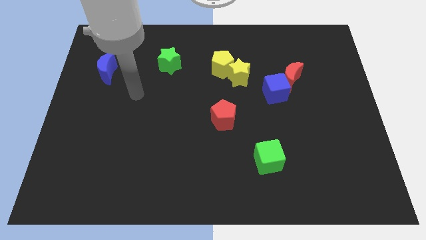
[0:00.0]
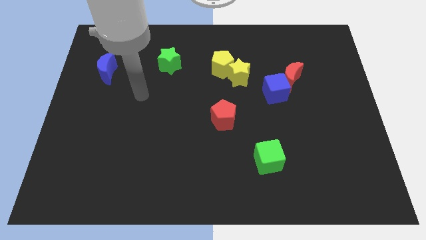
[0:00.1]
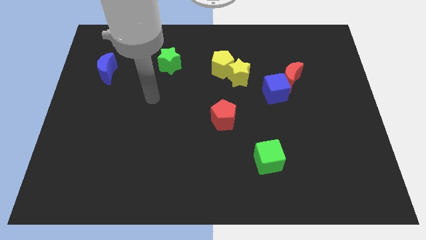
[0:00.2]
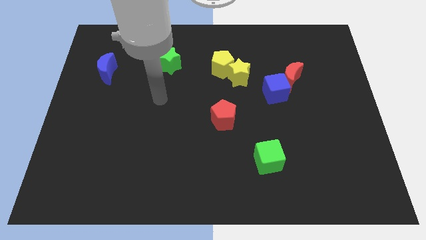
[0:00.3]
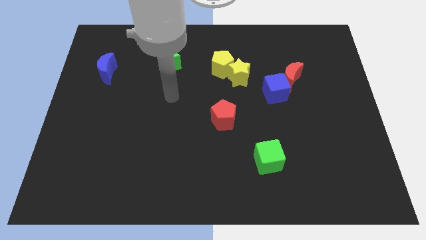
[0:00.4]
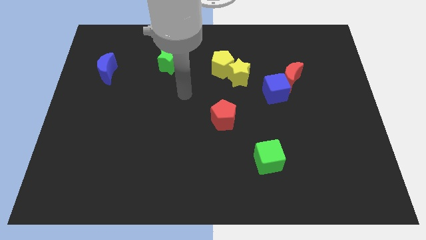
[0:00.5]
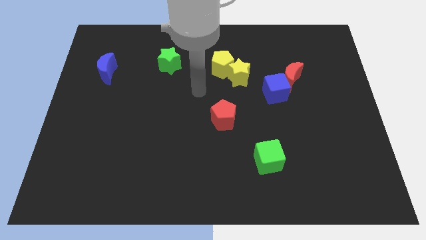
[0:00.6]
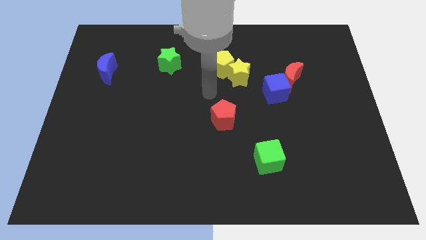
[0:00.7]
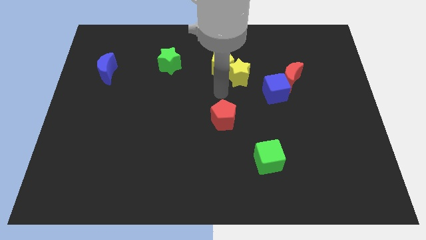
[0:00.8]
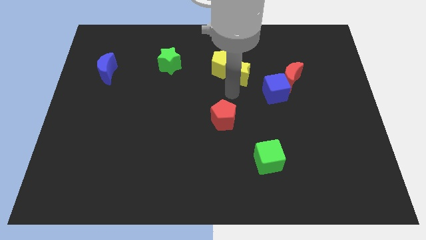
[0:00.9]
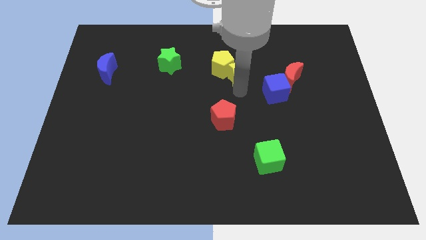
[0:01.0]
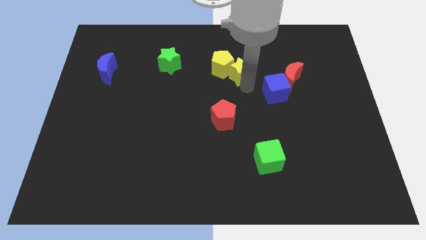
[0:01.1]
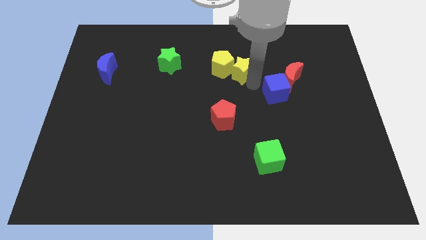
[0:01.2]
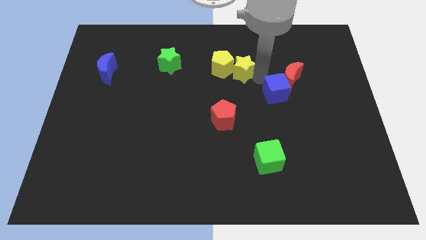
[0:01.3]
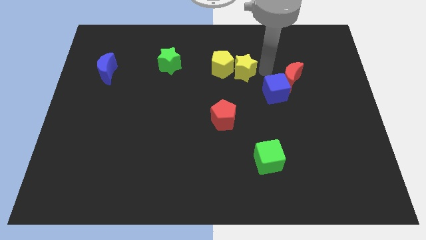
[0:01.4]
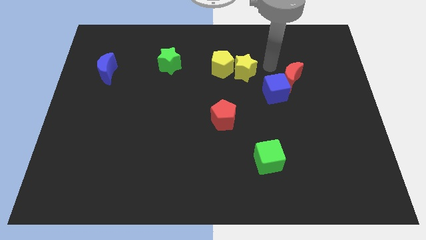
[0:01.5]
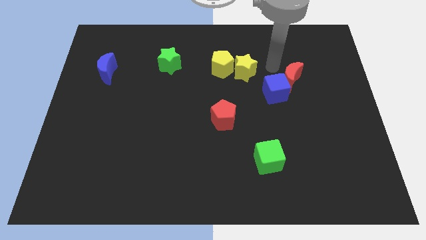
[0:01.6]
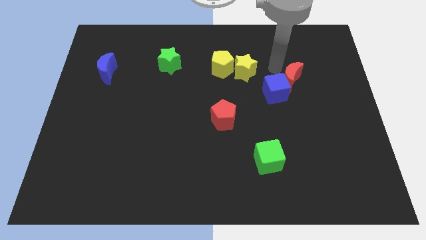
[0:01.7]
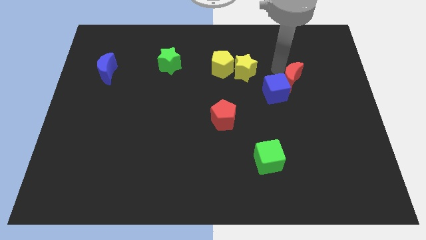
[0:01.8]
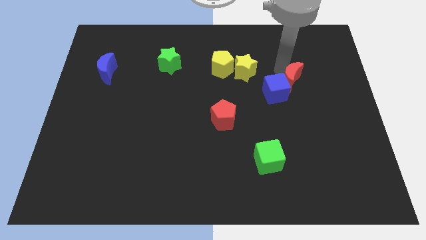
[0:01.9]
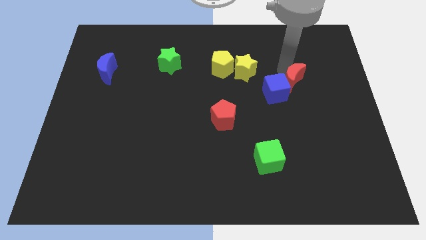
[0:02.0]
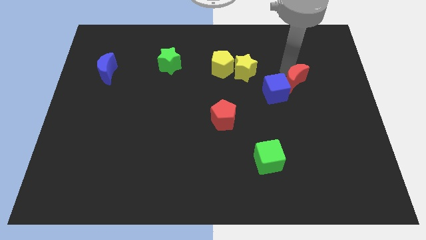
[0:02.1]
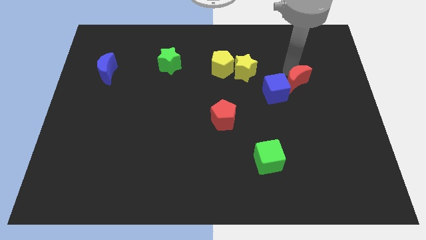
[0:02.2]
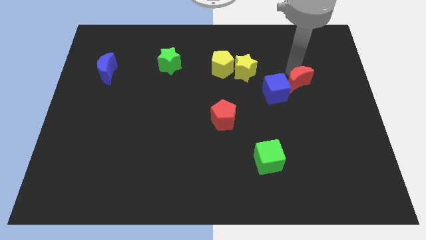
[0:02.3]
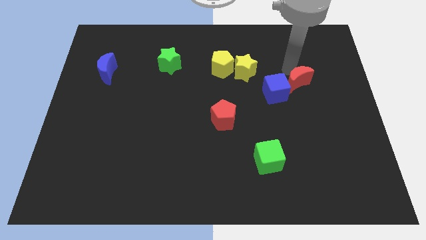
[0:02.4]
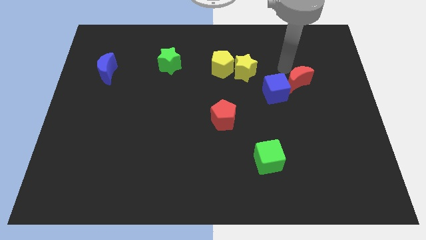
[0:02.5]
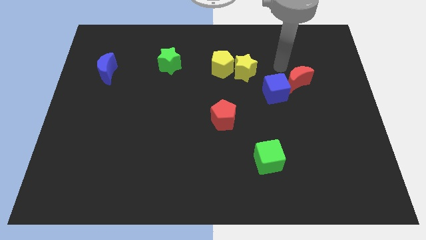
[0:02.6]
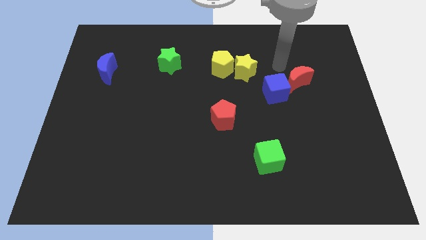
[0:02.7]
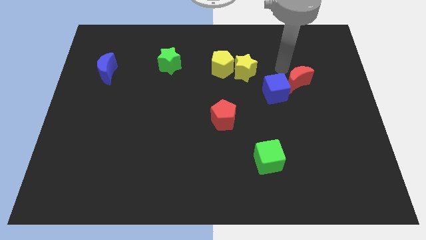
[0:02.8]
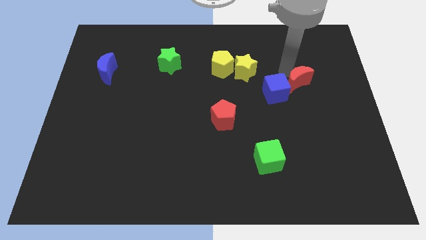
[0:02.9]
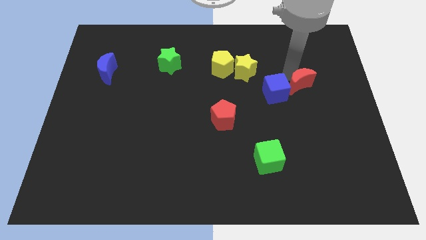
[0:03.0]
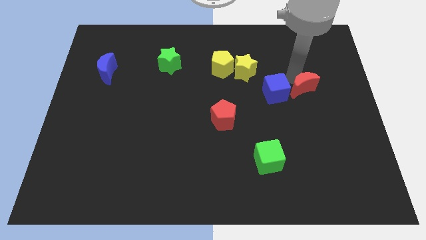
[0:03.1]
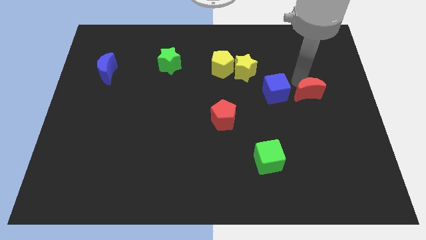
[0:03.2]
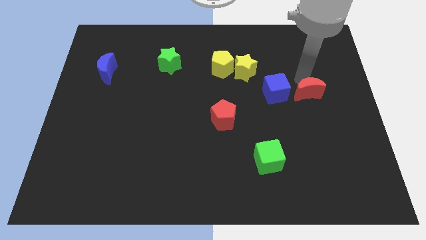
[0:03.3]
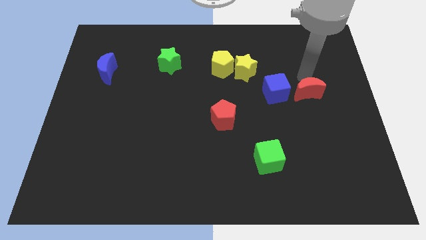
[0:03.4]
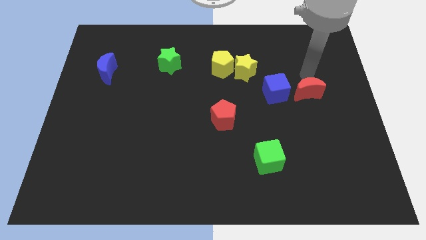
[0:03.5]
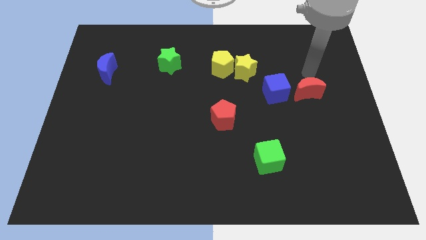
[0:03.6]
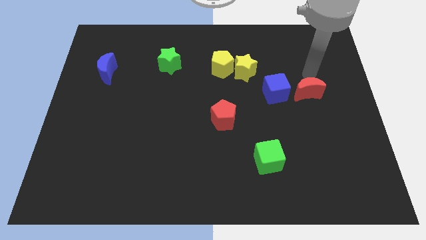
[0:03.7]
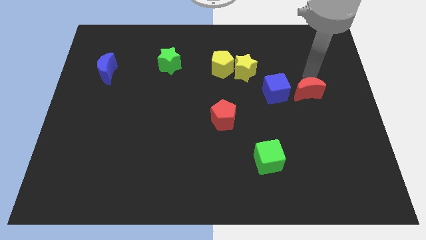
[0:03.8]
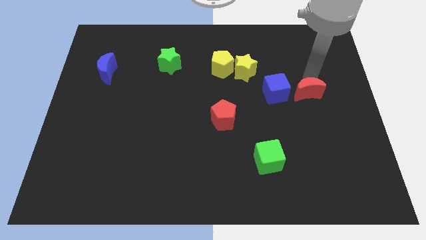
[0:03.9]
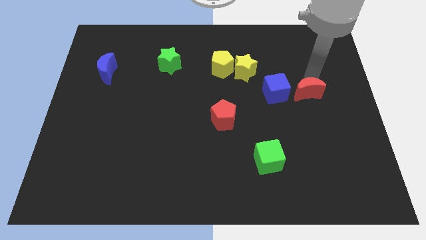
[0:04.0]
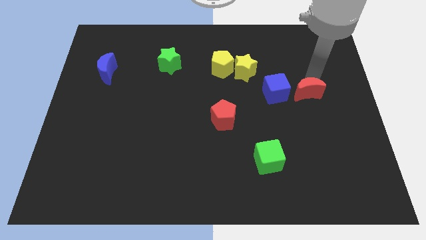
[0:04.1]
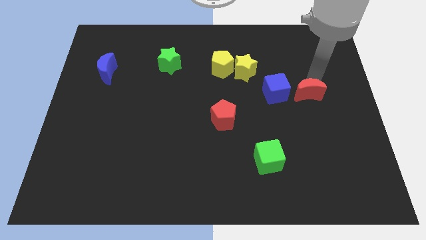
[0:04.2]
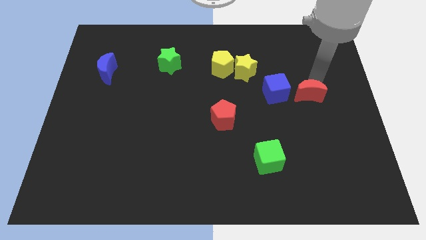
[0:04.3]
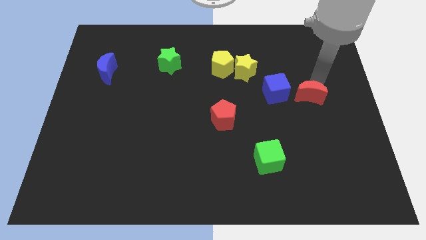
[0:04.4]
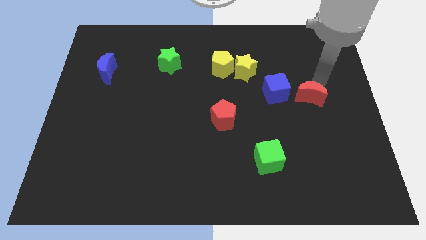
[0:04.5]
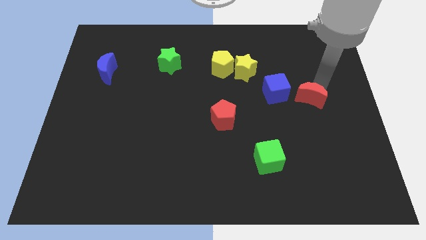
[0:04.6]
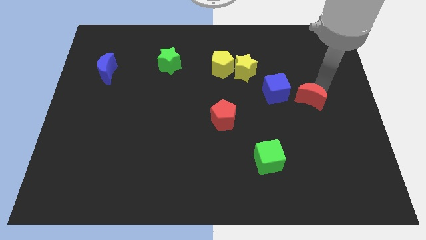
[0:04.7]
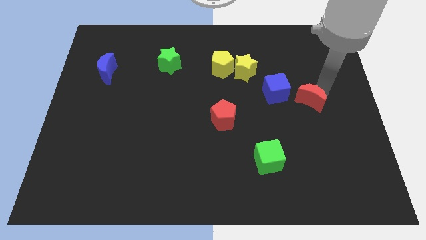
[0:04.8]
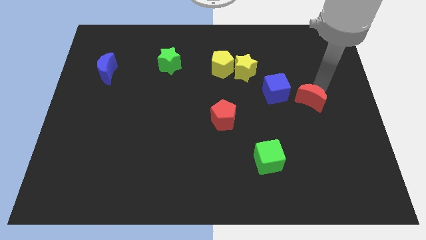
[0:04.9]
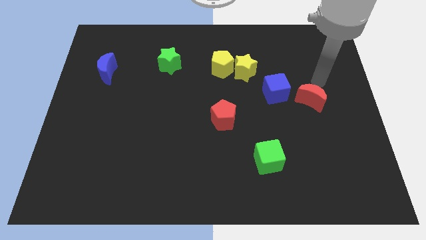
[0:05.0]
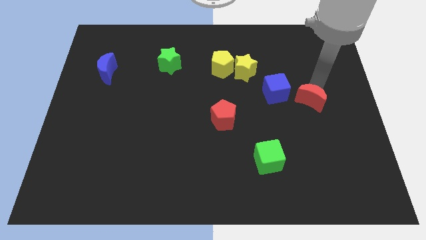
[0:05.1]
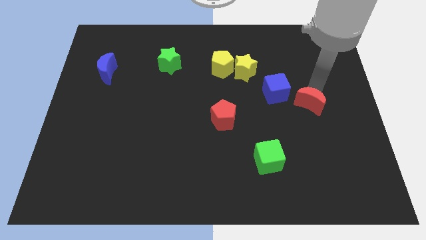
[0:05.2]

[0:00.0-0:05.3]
slide the red moon somewhat down

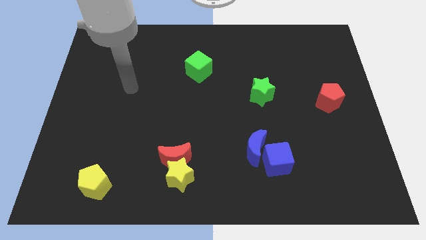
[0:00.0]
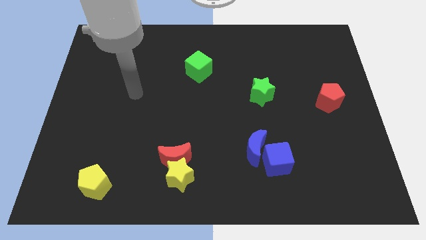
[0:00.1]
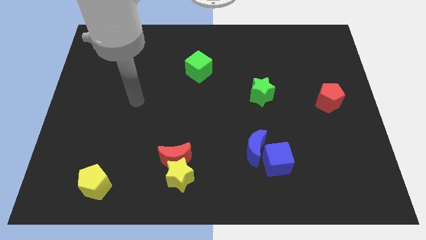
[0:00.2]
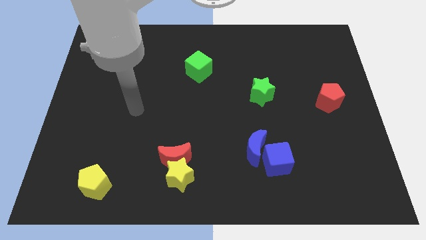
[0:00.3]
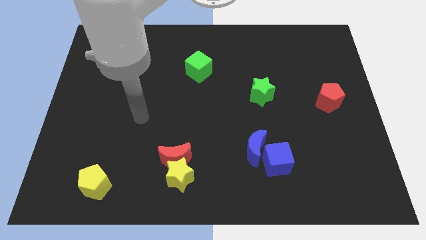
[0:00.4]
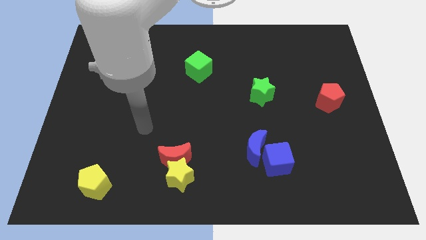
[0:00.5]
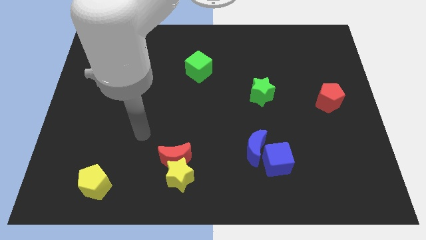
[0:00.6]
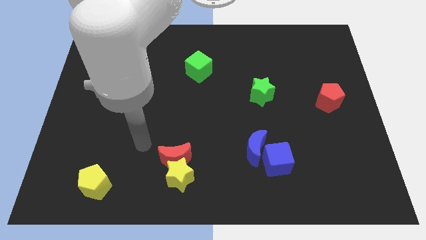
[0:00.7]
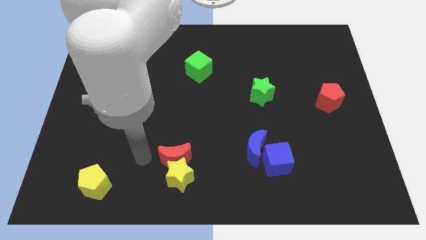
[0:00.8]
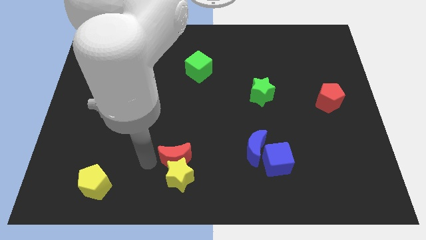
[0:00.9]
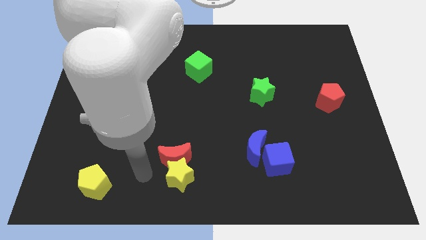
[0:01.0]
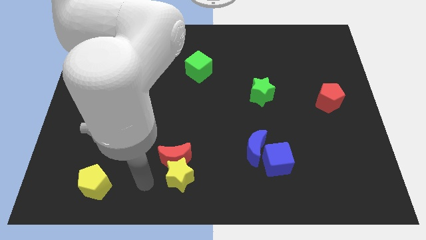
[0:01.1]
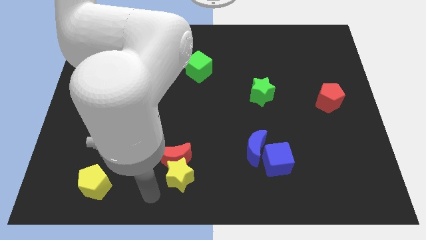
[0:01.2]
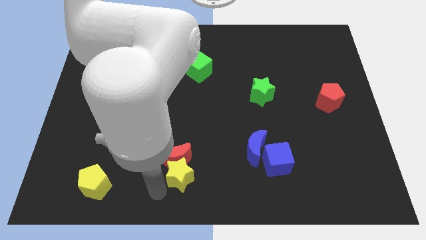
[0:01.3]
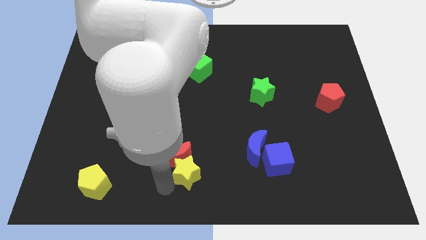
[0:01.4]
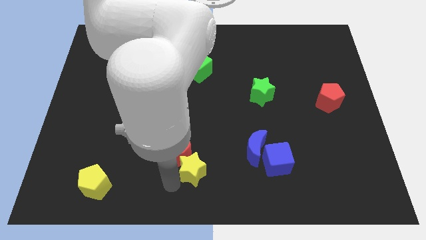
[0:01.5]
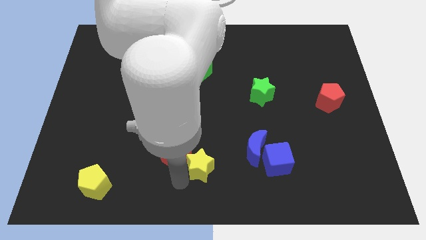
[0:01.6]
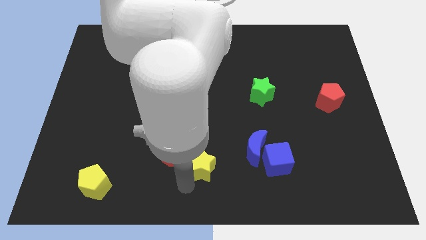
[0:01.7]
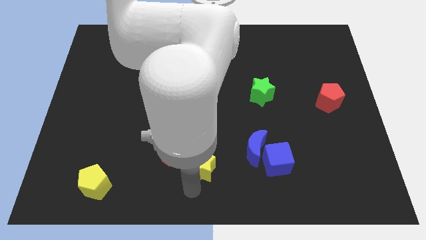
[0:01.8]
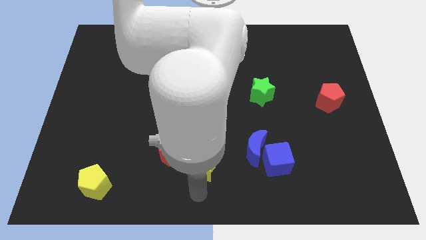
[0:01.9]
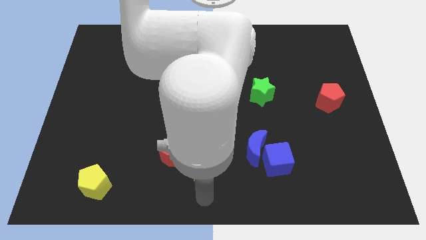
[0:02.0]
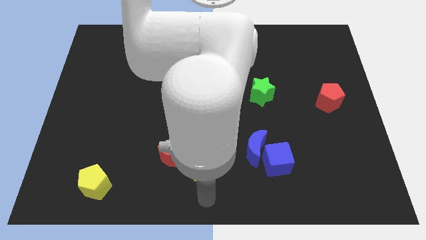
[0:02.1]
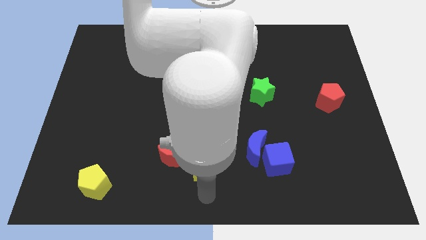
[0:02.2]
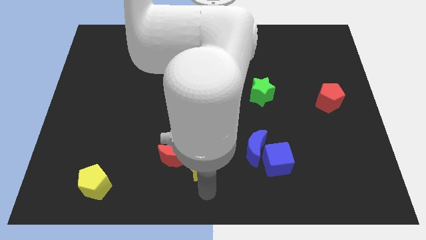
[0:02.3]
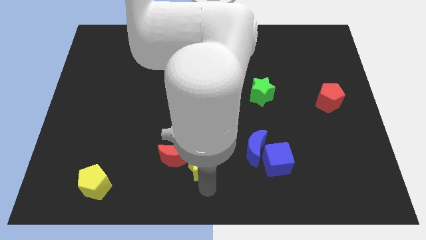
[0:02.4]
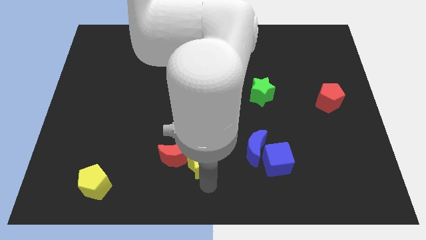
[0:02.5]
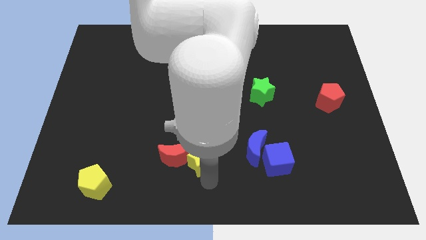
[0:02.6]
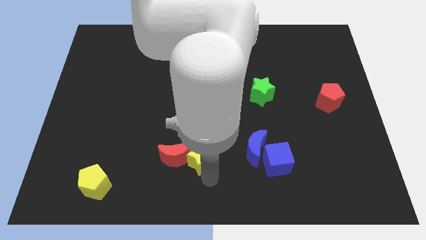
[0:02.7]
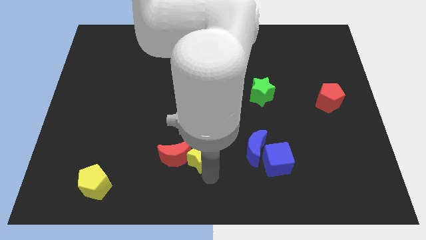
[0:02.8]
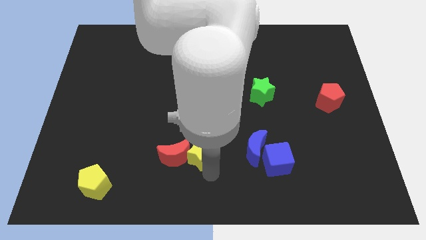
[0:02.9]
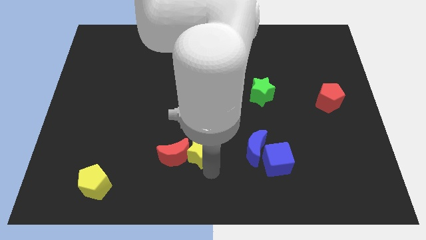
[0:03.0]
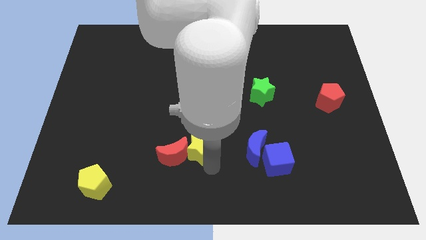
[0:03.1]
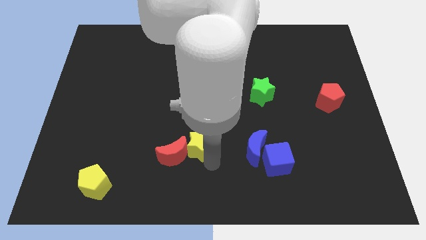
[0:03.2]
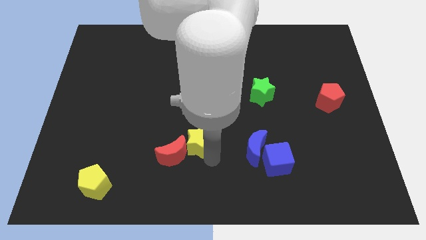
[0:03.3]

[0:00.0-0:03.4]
move the yellow star a little bit up
